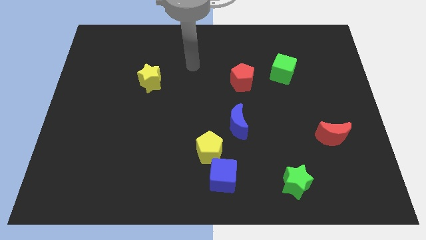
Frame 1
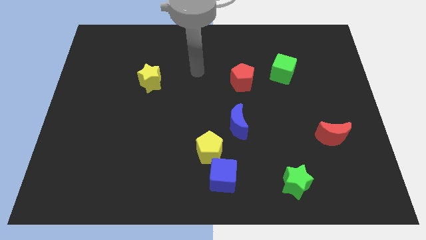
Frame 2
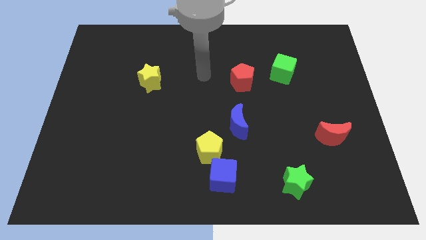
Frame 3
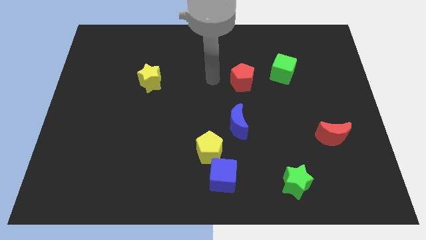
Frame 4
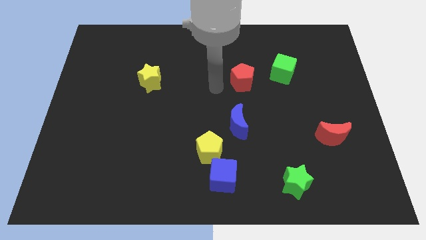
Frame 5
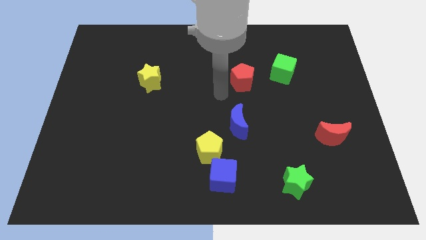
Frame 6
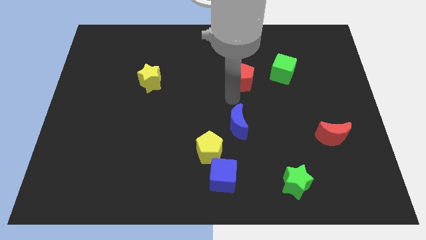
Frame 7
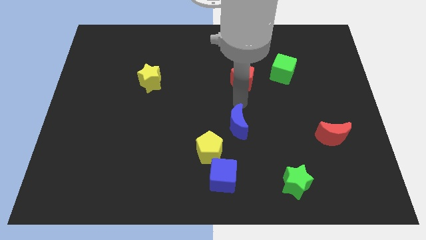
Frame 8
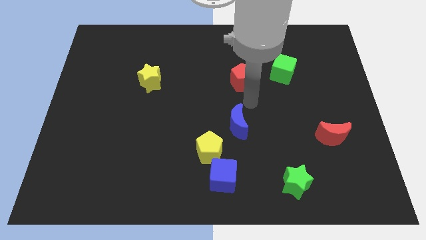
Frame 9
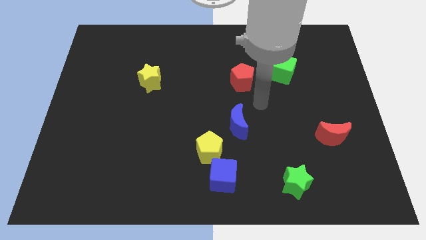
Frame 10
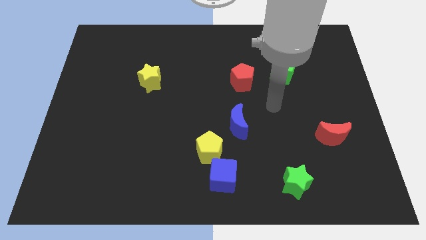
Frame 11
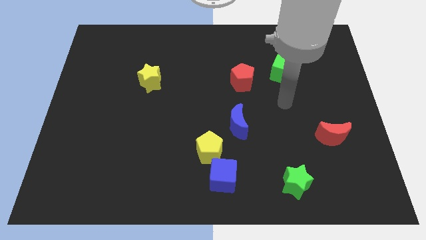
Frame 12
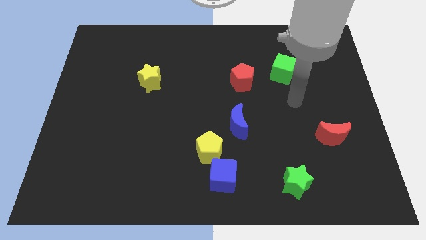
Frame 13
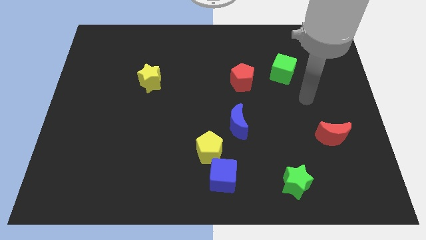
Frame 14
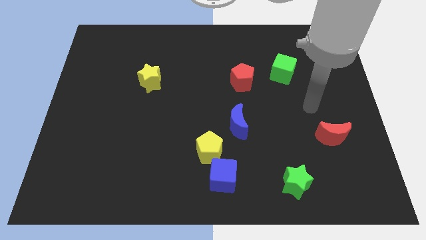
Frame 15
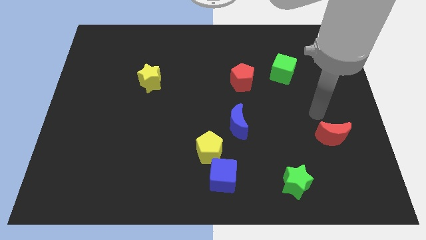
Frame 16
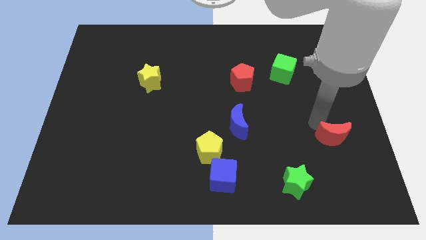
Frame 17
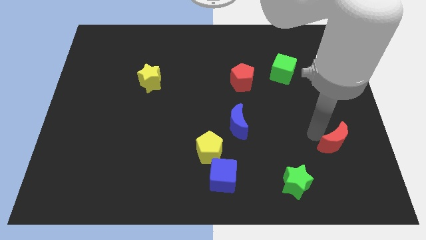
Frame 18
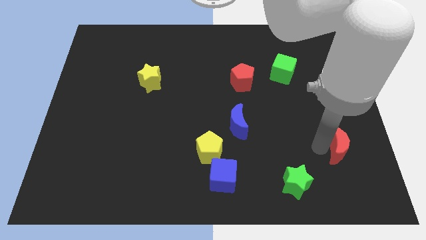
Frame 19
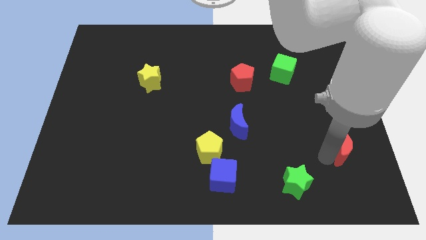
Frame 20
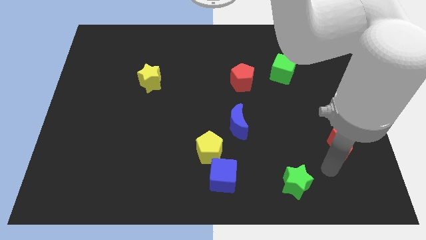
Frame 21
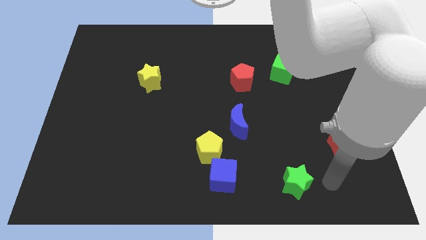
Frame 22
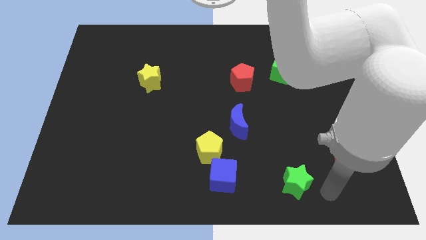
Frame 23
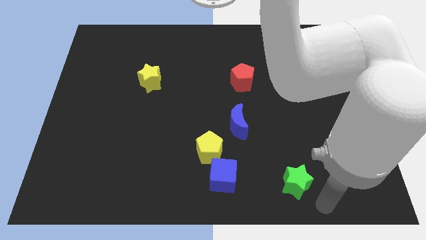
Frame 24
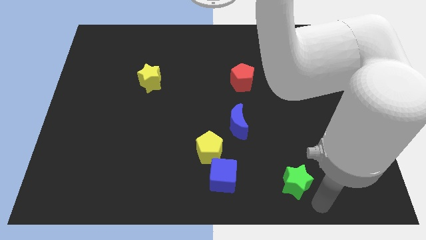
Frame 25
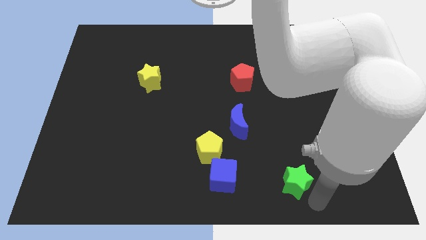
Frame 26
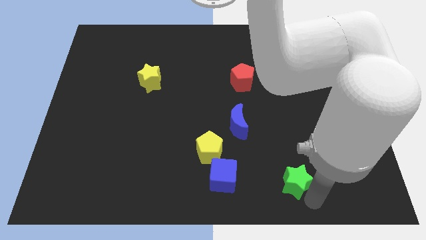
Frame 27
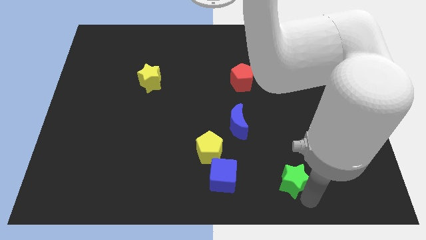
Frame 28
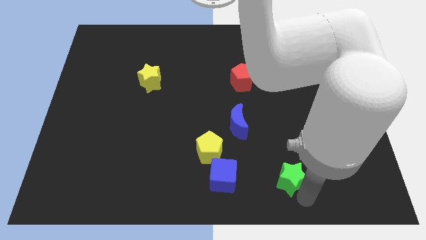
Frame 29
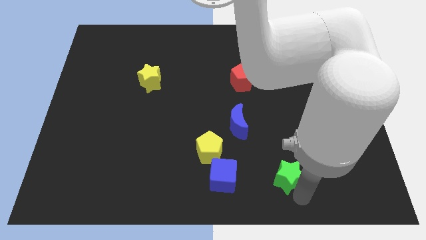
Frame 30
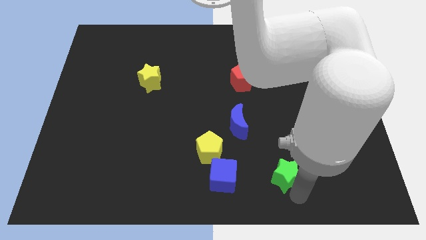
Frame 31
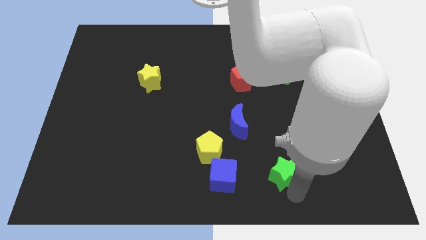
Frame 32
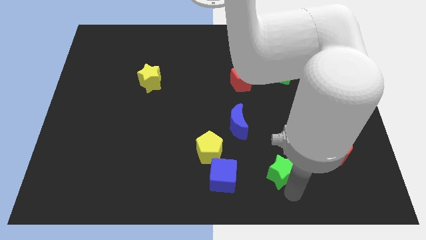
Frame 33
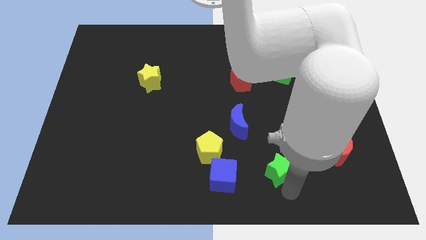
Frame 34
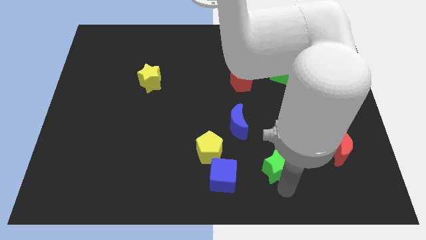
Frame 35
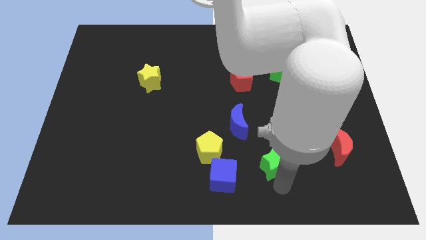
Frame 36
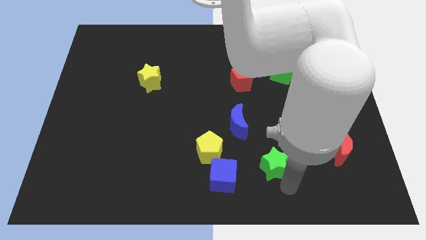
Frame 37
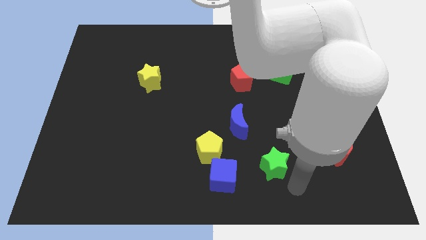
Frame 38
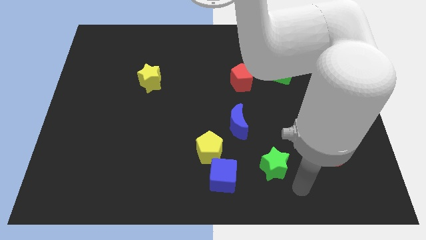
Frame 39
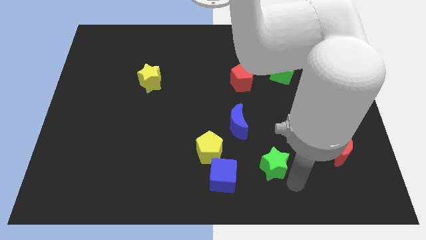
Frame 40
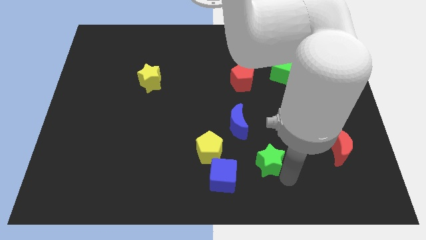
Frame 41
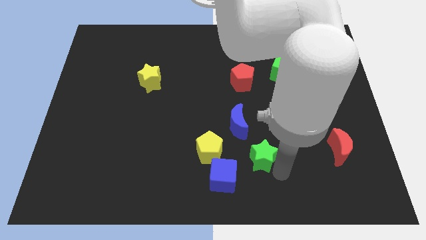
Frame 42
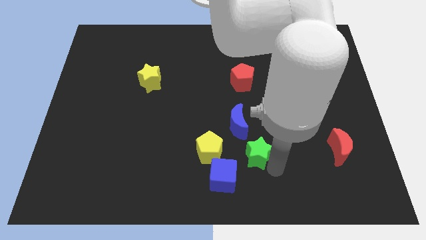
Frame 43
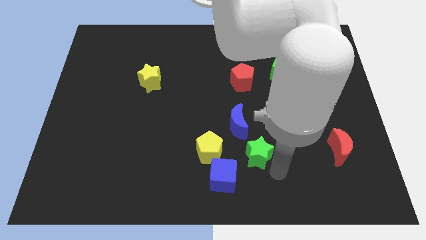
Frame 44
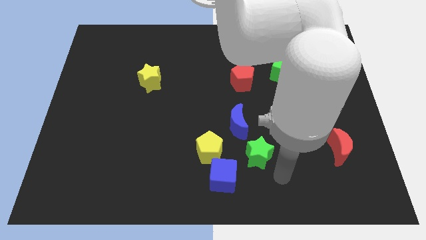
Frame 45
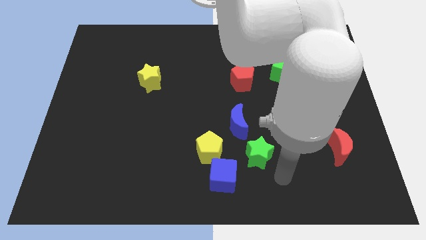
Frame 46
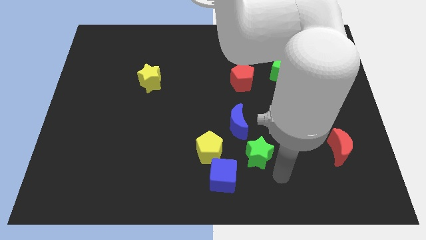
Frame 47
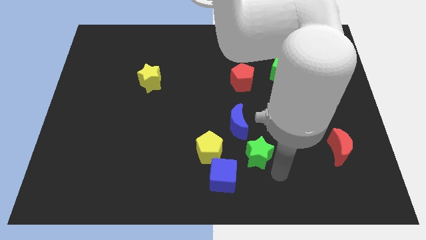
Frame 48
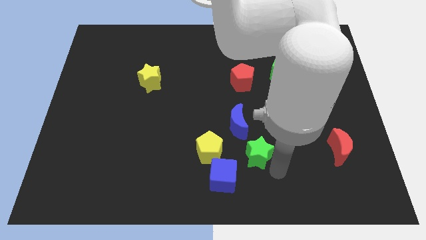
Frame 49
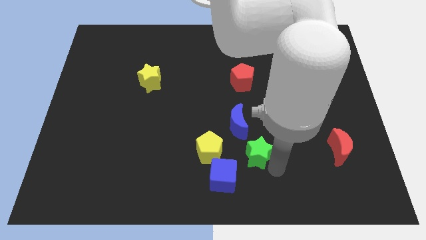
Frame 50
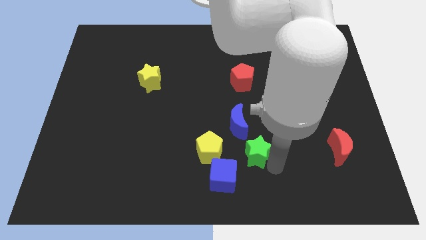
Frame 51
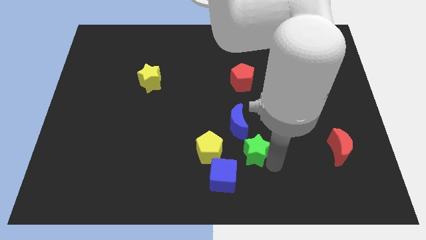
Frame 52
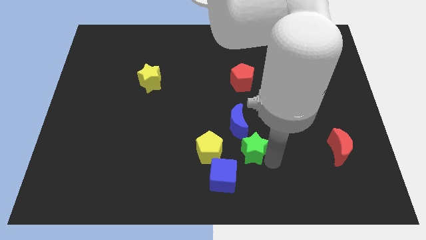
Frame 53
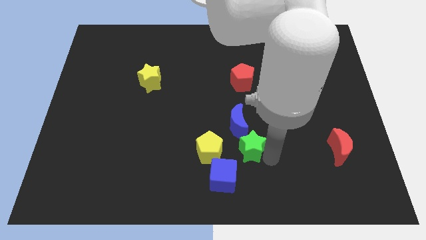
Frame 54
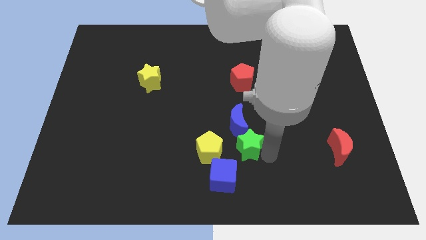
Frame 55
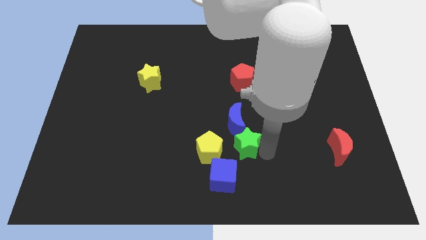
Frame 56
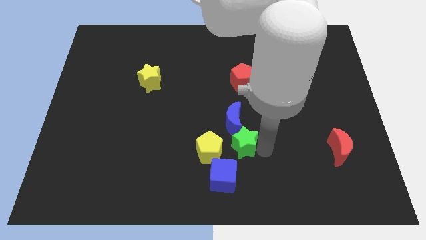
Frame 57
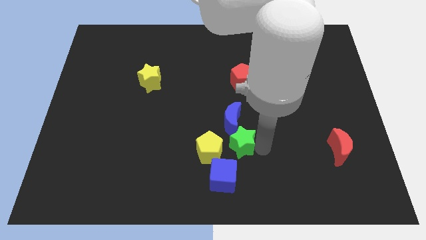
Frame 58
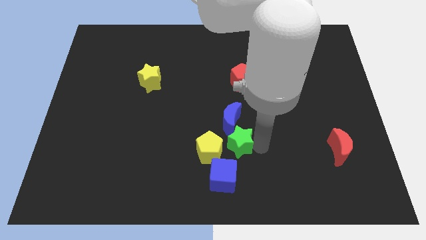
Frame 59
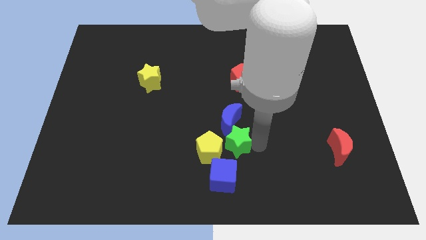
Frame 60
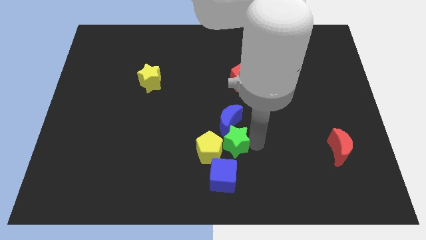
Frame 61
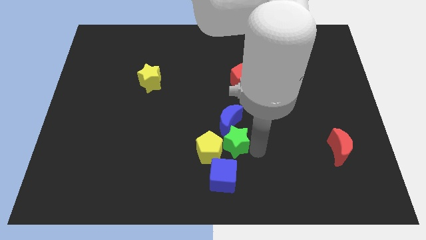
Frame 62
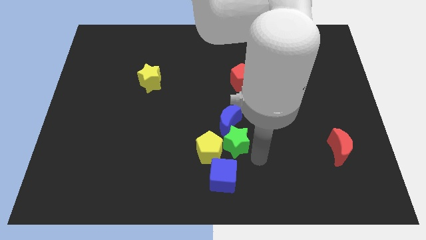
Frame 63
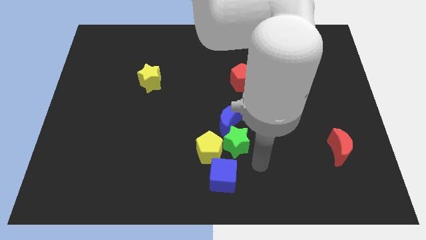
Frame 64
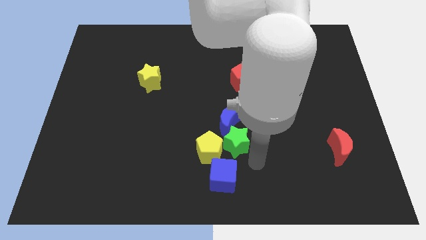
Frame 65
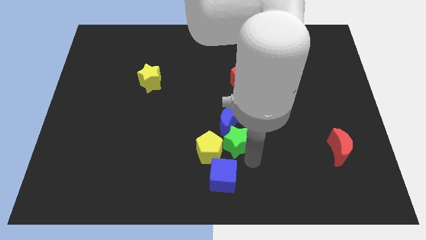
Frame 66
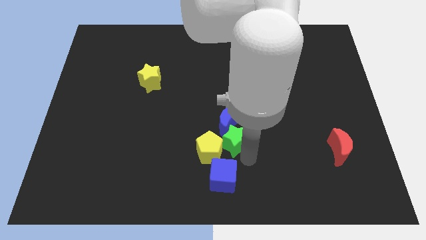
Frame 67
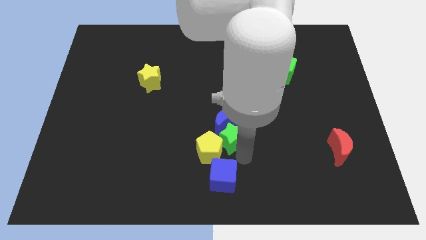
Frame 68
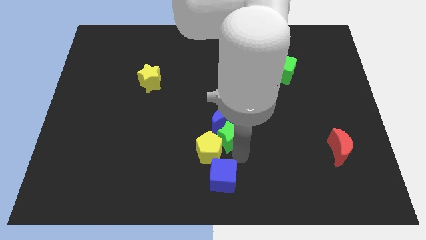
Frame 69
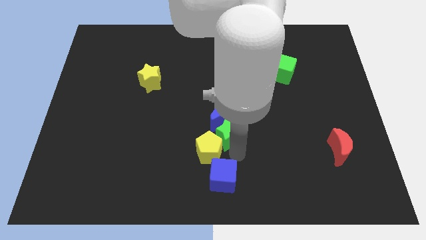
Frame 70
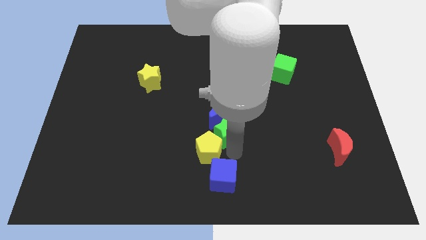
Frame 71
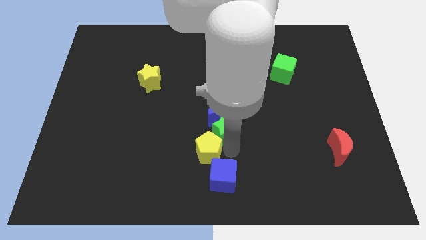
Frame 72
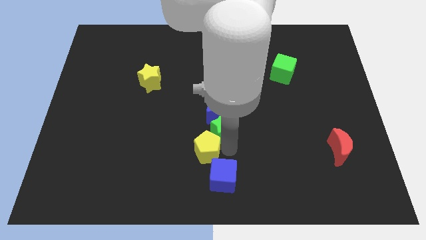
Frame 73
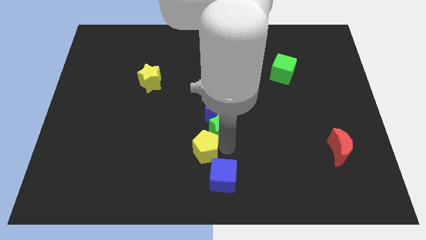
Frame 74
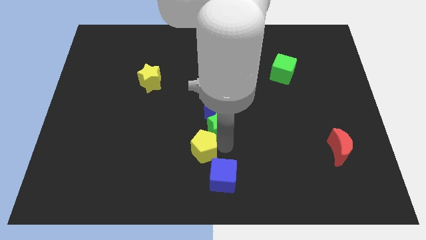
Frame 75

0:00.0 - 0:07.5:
push the green star up and left

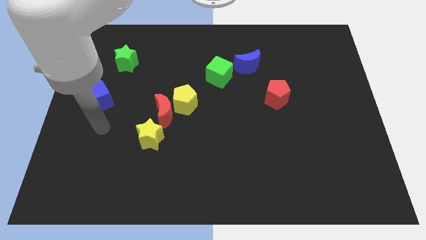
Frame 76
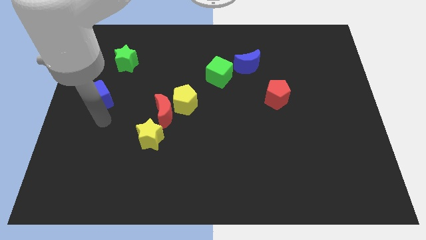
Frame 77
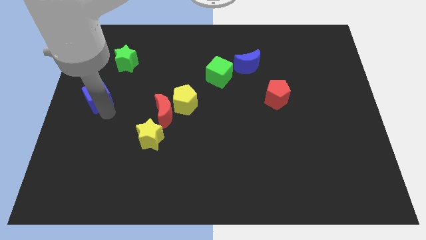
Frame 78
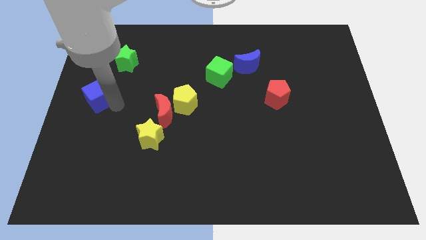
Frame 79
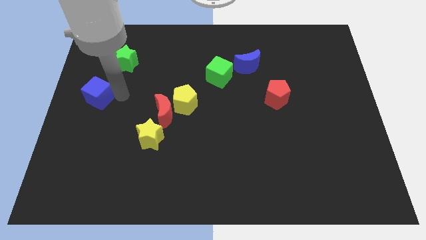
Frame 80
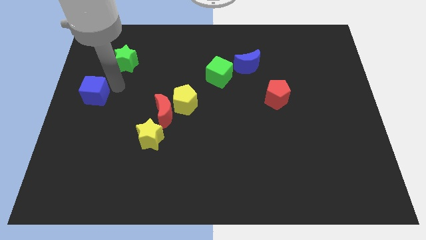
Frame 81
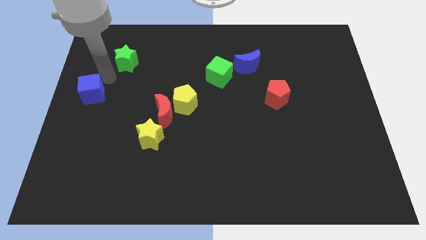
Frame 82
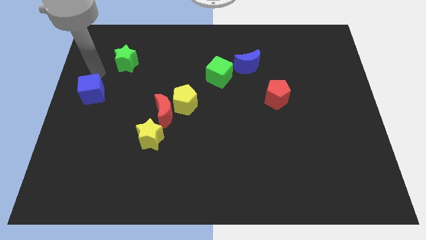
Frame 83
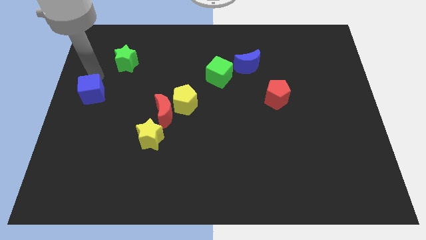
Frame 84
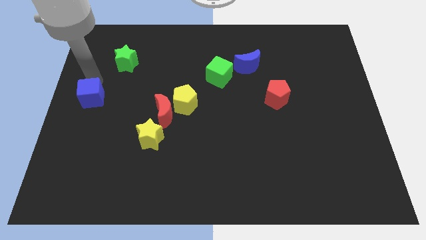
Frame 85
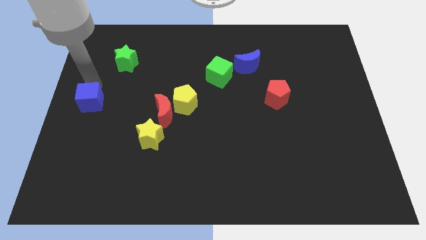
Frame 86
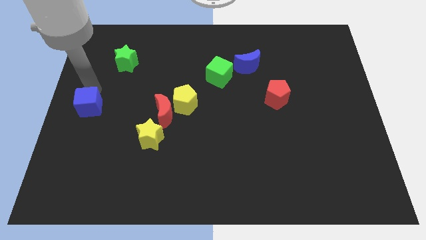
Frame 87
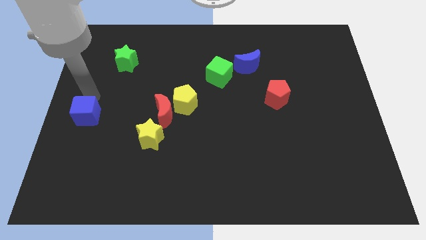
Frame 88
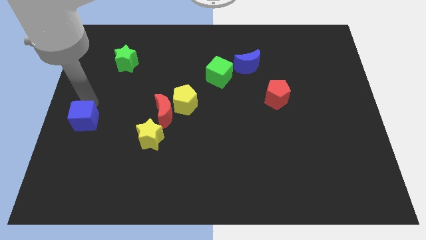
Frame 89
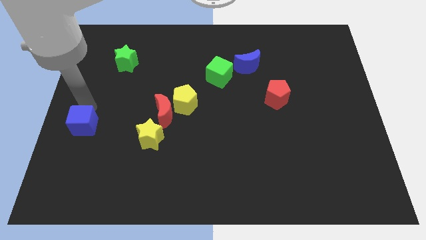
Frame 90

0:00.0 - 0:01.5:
slightly move the blue cube downwards
